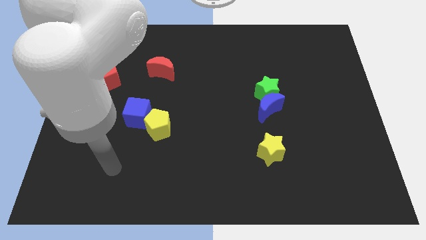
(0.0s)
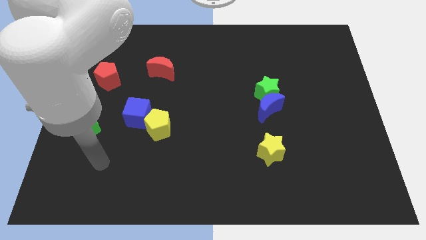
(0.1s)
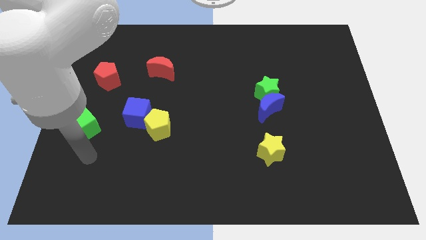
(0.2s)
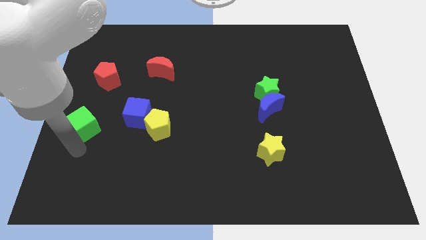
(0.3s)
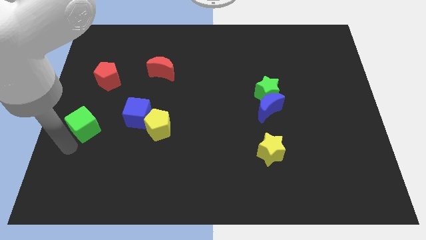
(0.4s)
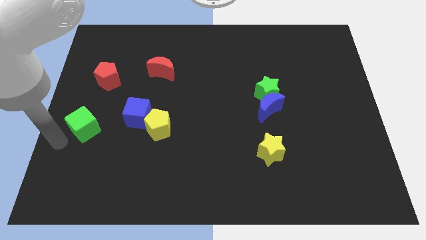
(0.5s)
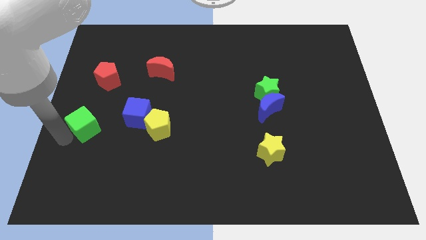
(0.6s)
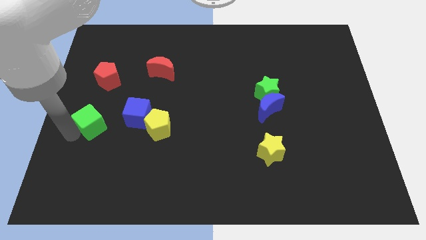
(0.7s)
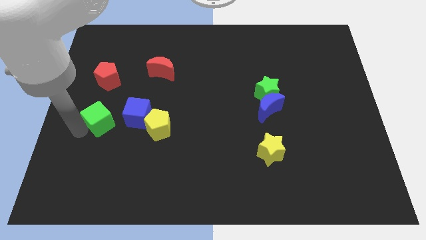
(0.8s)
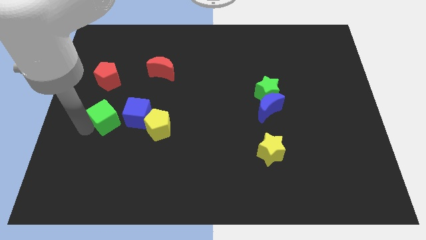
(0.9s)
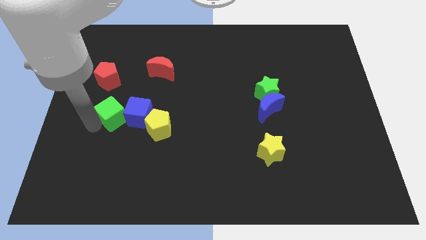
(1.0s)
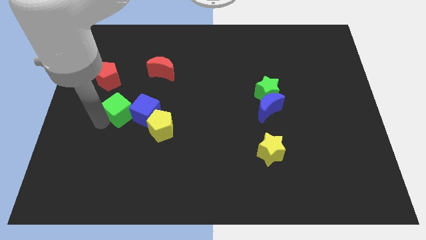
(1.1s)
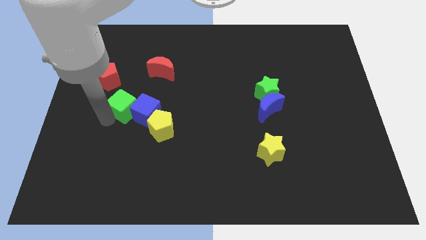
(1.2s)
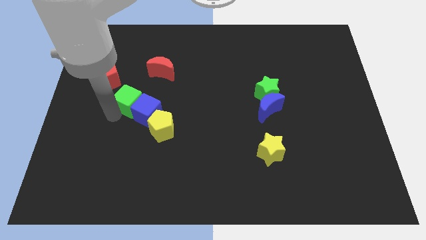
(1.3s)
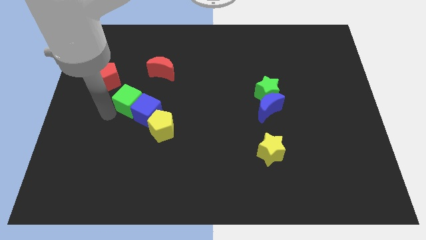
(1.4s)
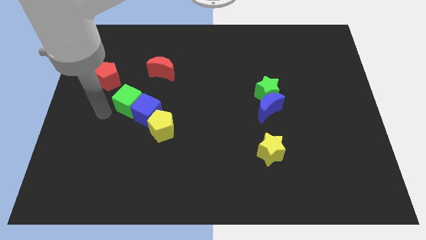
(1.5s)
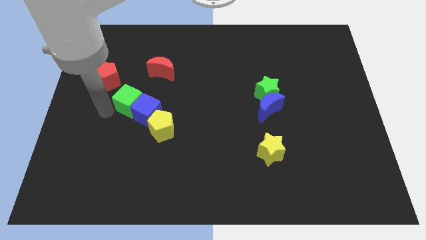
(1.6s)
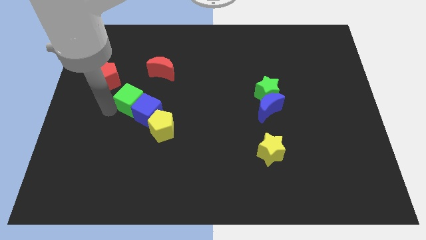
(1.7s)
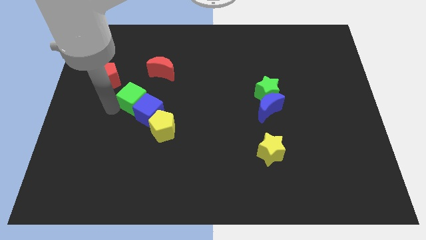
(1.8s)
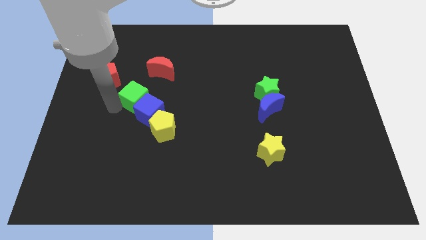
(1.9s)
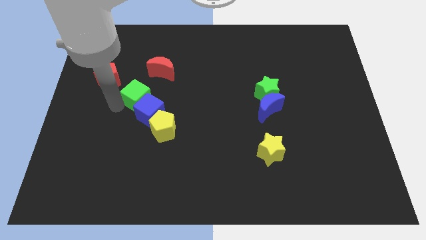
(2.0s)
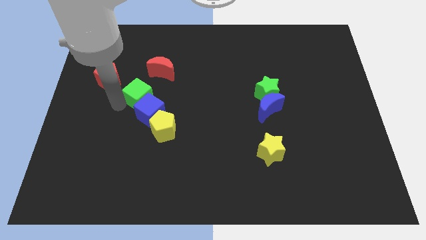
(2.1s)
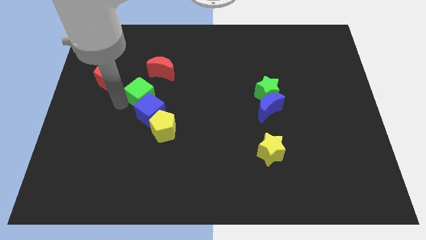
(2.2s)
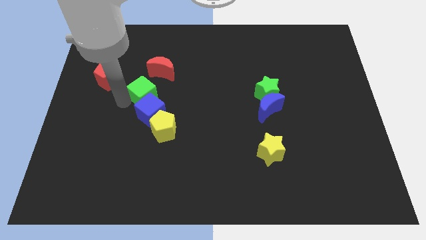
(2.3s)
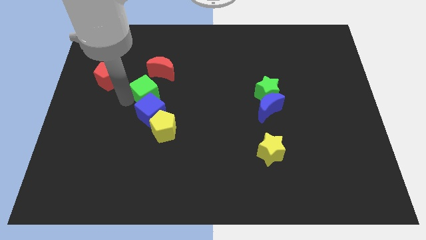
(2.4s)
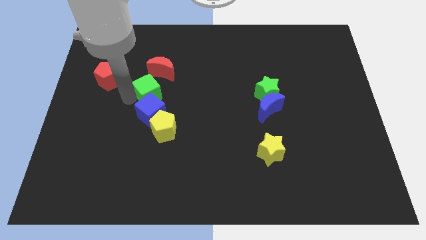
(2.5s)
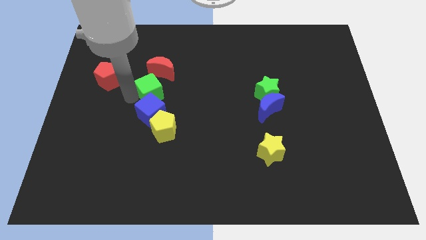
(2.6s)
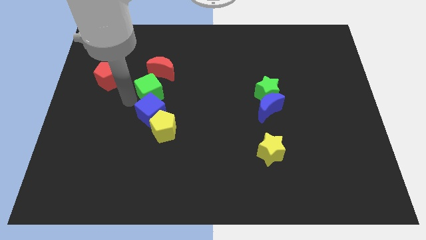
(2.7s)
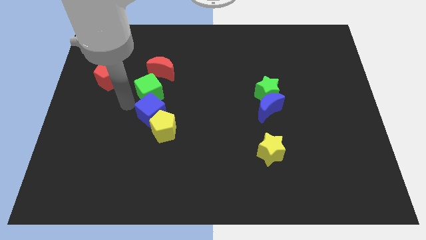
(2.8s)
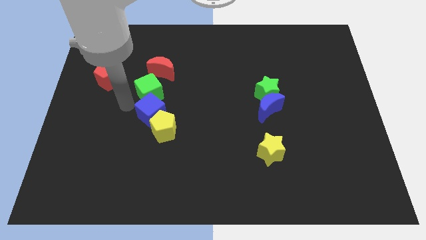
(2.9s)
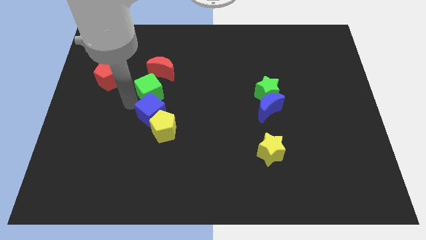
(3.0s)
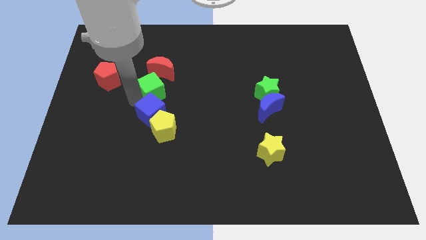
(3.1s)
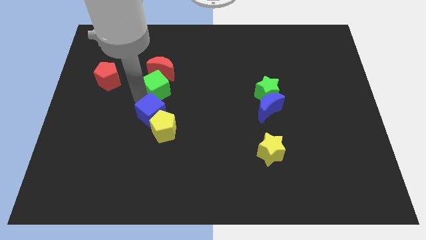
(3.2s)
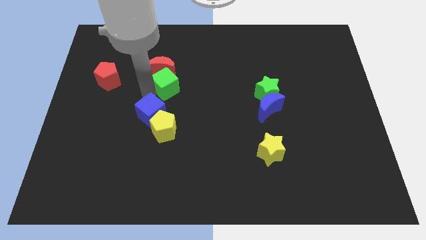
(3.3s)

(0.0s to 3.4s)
push the green cube diagonally up and right

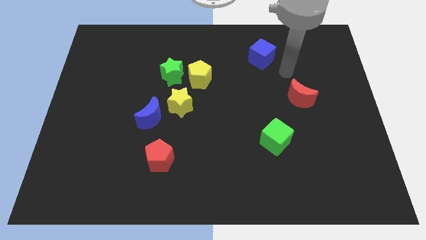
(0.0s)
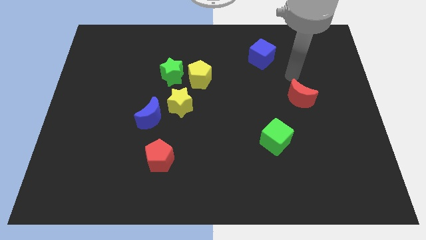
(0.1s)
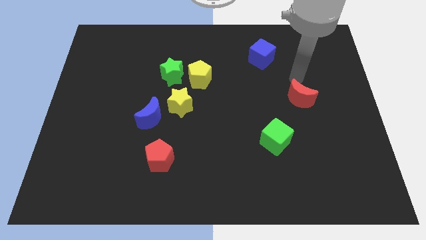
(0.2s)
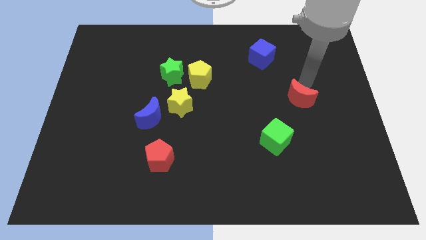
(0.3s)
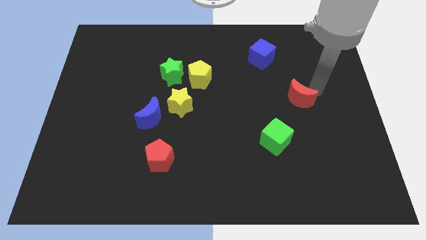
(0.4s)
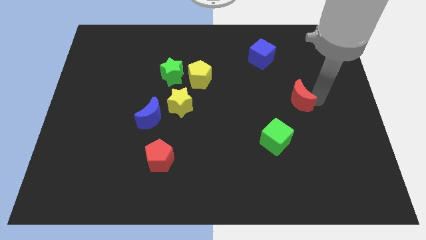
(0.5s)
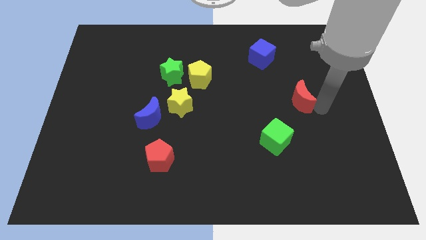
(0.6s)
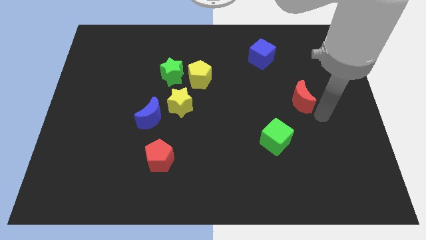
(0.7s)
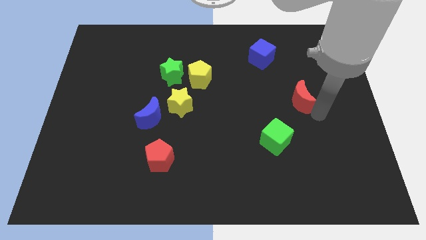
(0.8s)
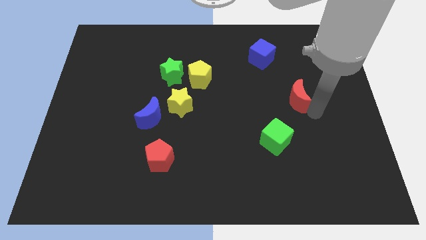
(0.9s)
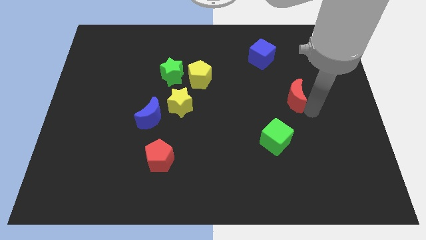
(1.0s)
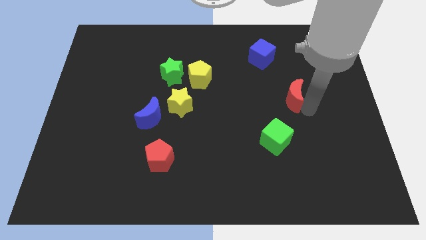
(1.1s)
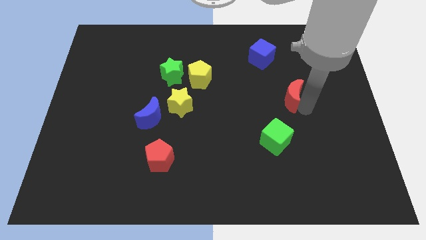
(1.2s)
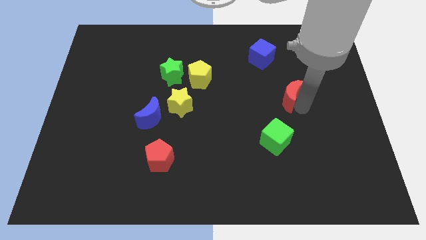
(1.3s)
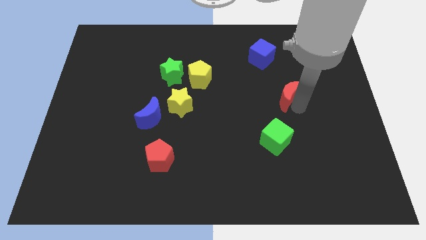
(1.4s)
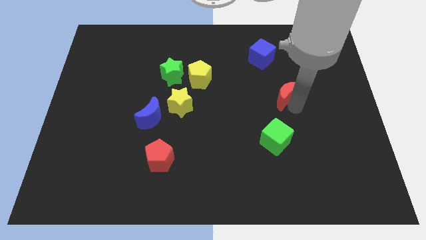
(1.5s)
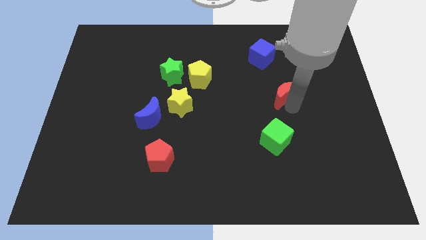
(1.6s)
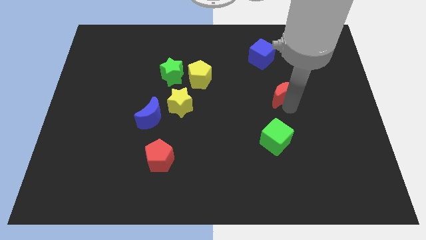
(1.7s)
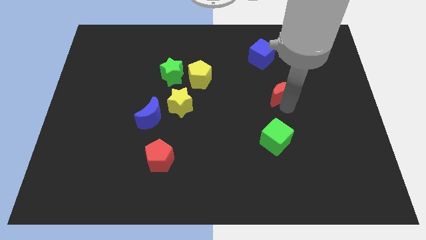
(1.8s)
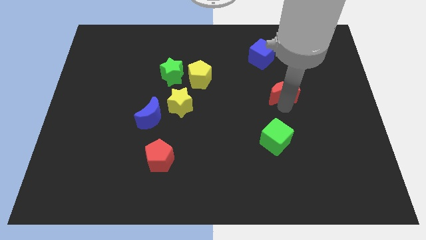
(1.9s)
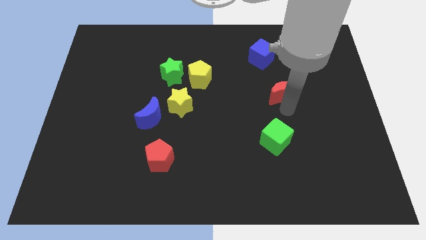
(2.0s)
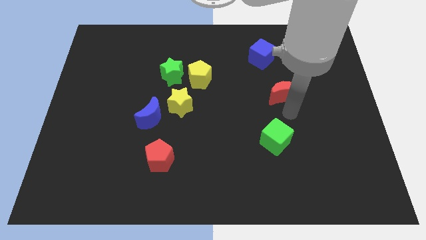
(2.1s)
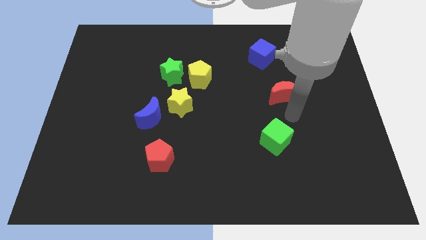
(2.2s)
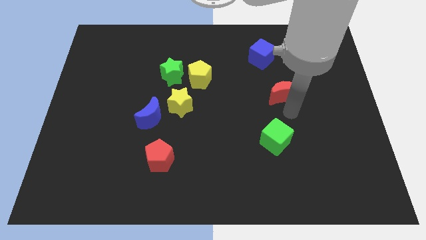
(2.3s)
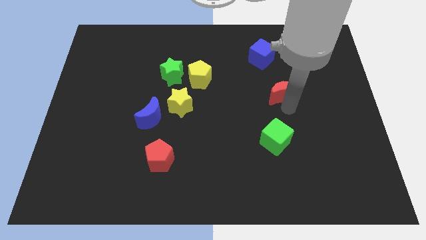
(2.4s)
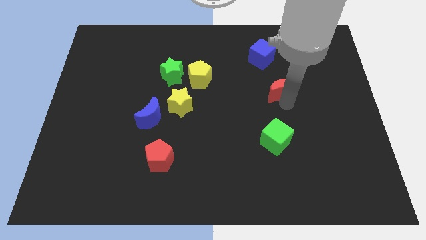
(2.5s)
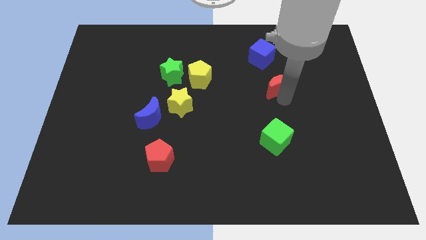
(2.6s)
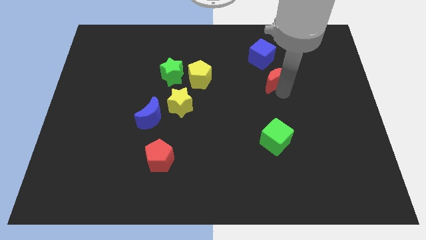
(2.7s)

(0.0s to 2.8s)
slightly push the red moon up and to the left

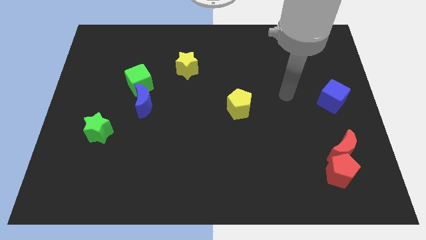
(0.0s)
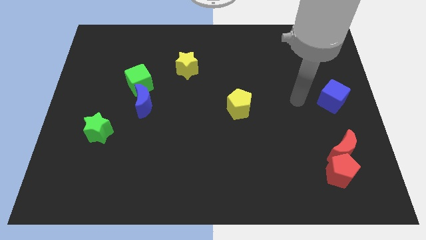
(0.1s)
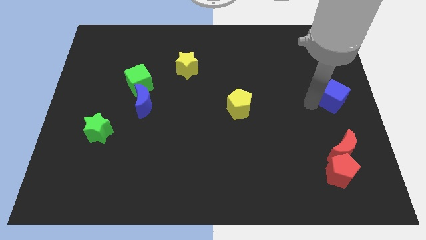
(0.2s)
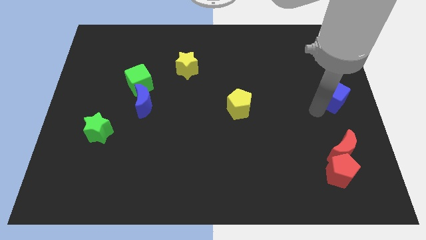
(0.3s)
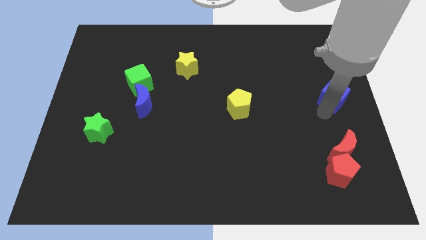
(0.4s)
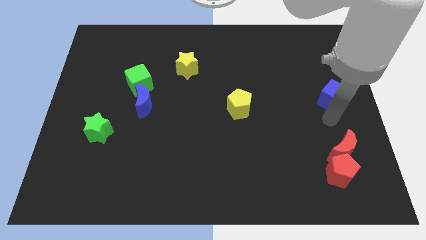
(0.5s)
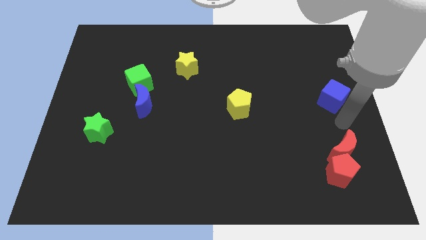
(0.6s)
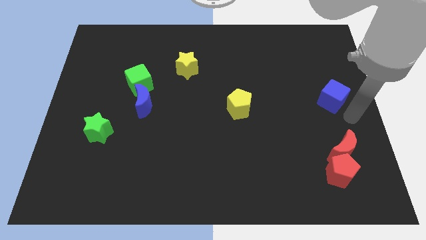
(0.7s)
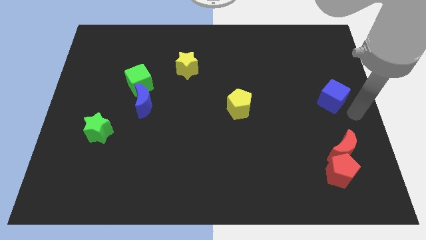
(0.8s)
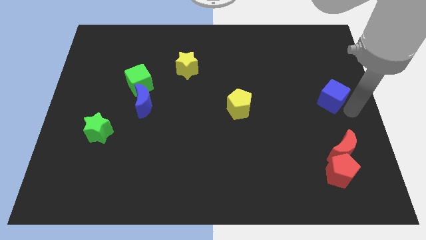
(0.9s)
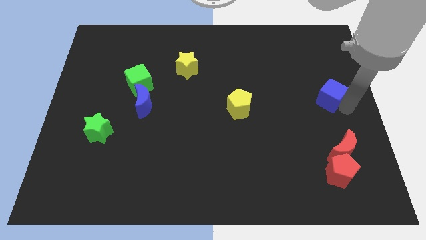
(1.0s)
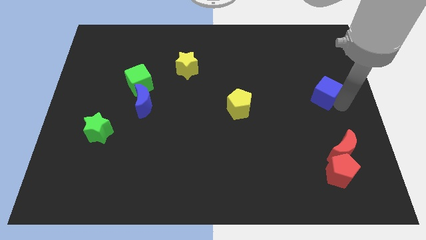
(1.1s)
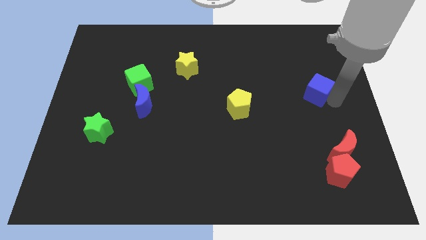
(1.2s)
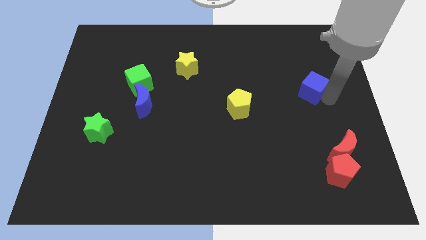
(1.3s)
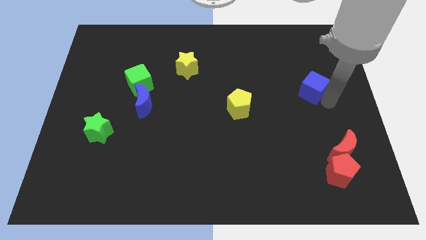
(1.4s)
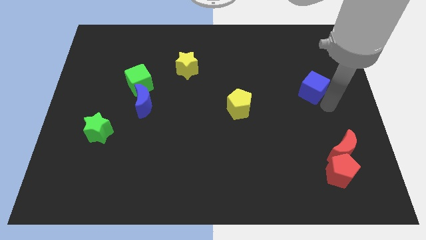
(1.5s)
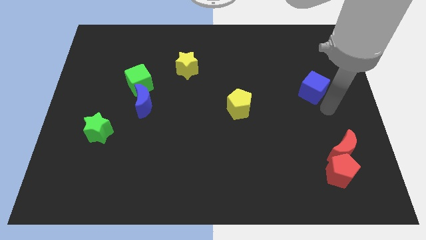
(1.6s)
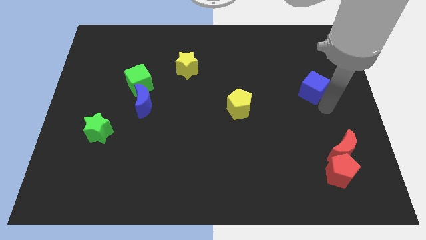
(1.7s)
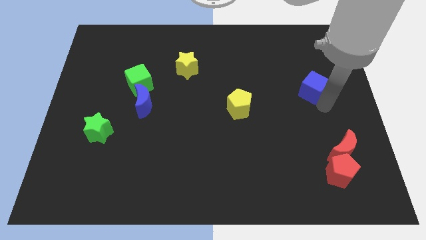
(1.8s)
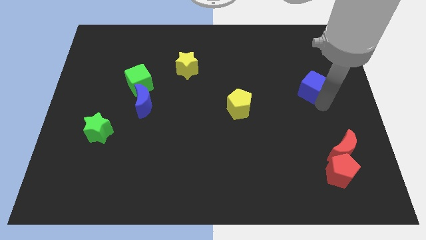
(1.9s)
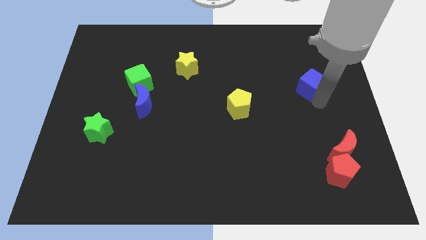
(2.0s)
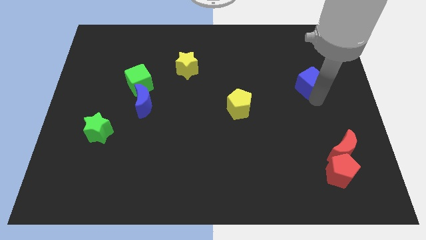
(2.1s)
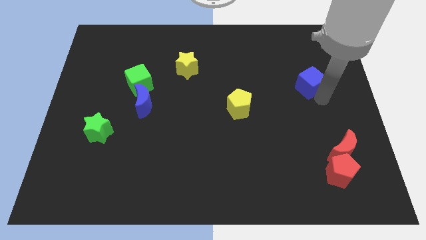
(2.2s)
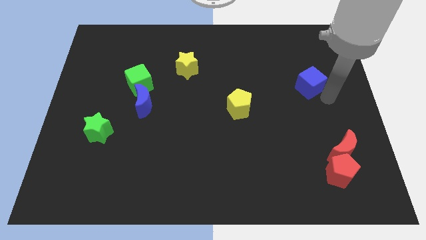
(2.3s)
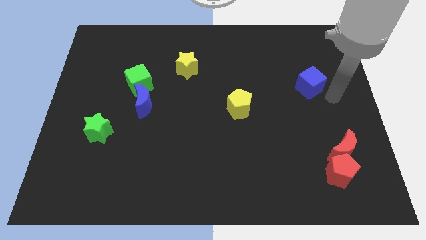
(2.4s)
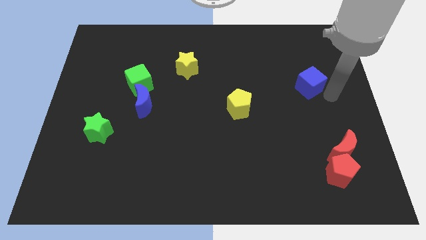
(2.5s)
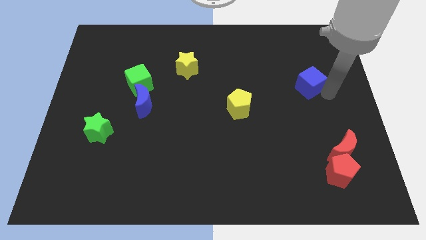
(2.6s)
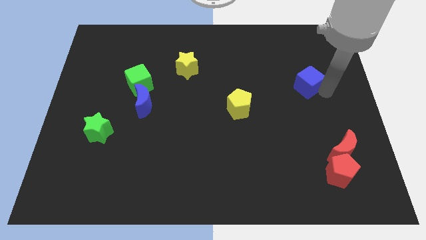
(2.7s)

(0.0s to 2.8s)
move the blue cube up and left diagonally a little bit
